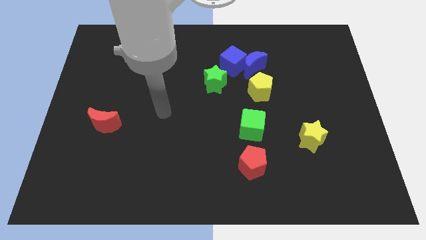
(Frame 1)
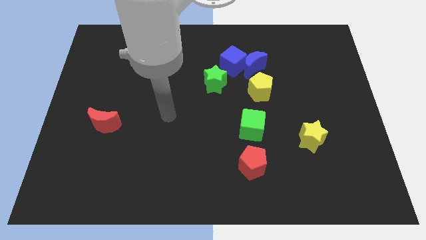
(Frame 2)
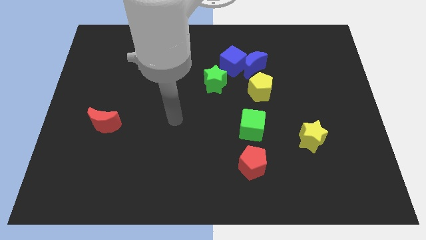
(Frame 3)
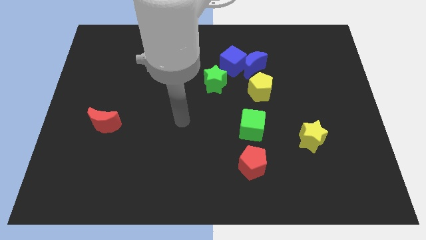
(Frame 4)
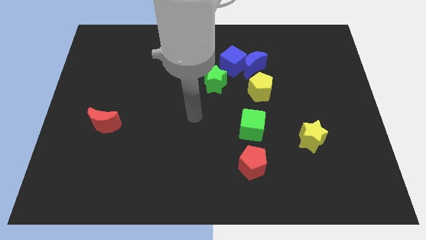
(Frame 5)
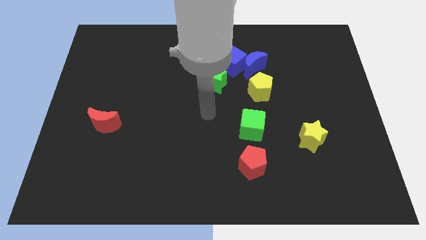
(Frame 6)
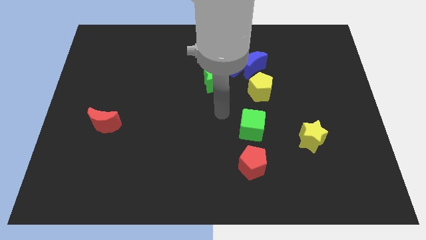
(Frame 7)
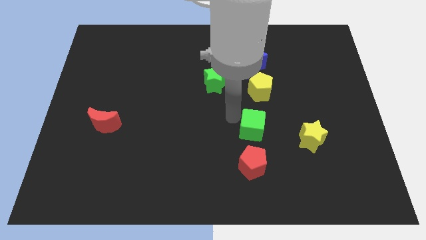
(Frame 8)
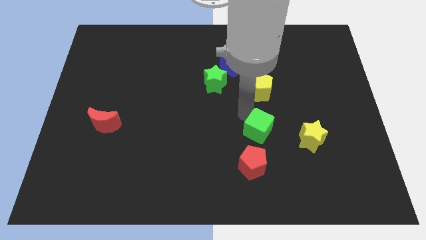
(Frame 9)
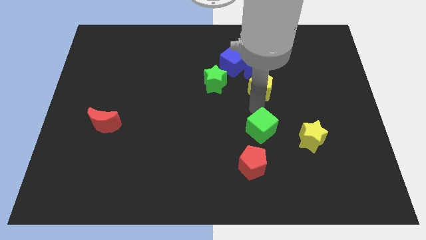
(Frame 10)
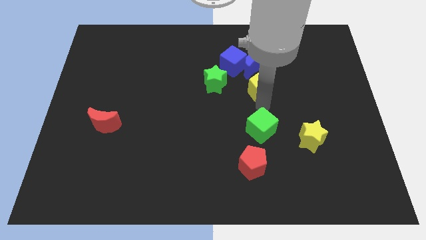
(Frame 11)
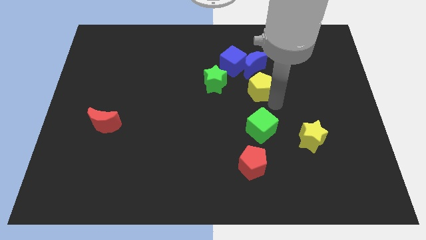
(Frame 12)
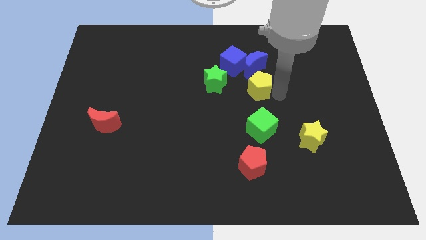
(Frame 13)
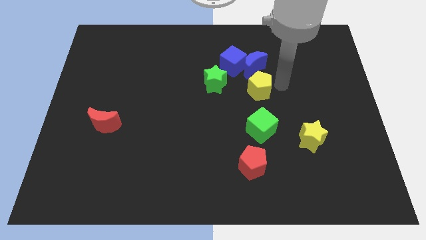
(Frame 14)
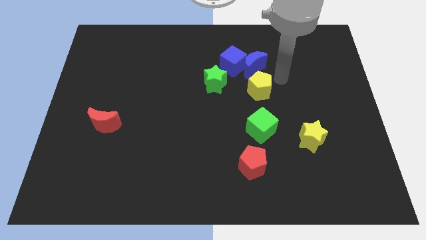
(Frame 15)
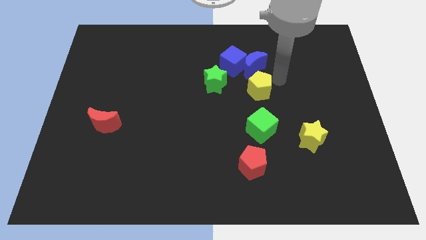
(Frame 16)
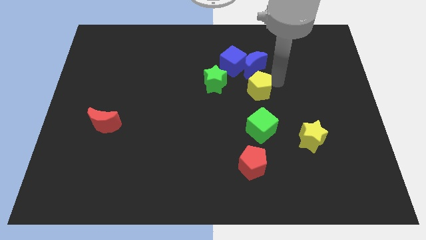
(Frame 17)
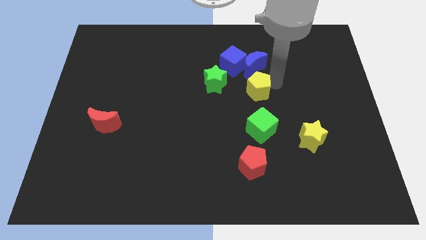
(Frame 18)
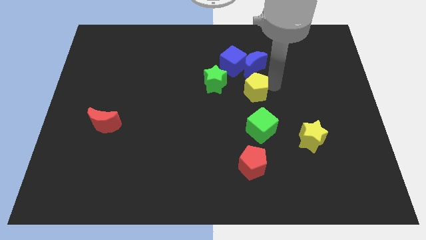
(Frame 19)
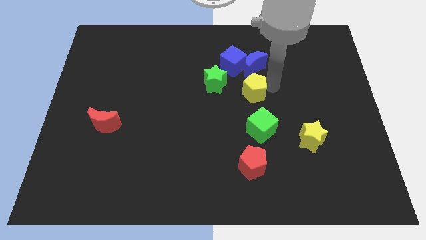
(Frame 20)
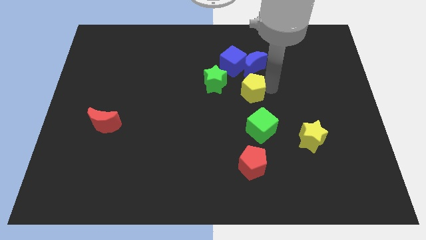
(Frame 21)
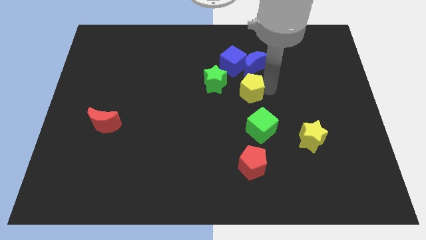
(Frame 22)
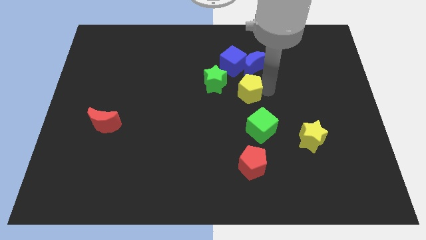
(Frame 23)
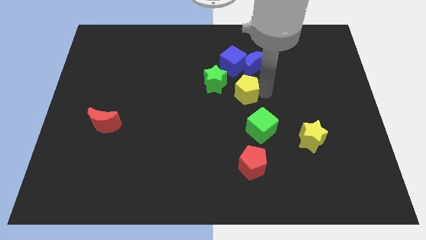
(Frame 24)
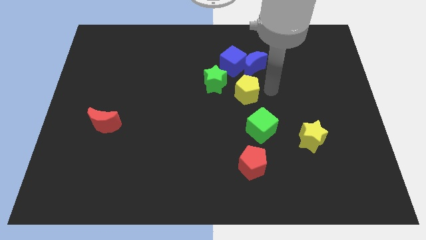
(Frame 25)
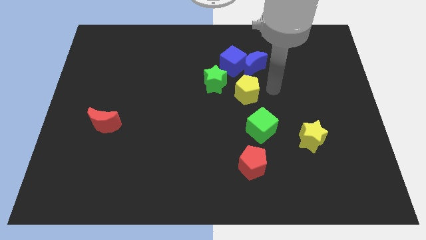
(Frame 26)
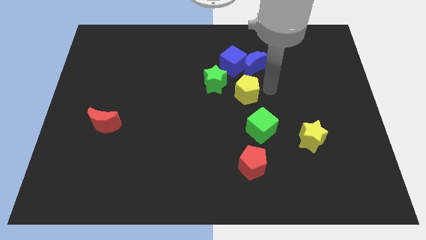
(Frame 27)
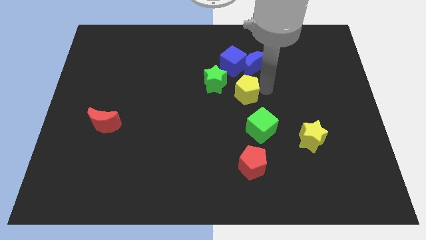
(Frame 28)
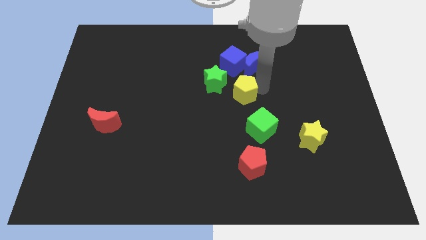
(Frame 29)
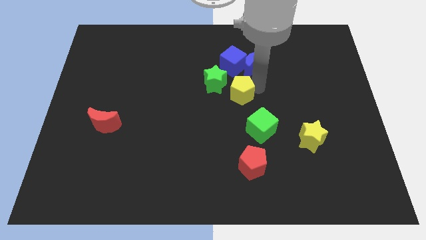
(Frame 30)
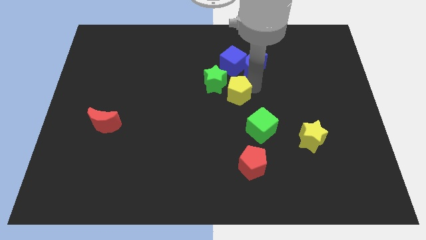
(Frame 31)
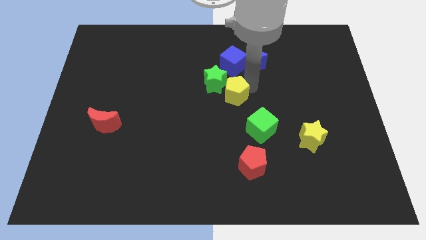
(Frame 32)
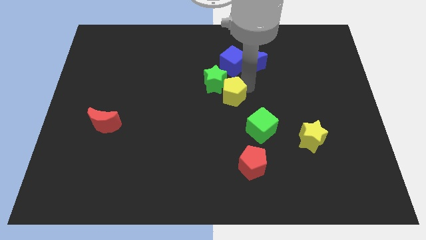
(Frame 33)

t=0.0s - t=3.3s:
move the yellow pentagon left a little bit

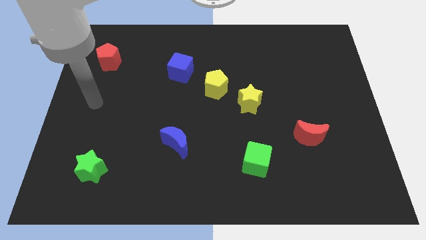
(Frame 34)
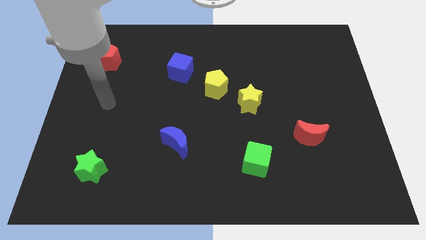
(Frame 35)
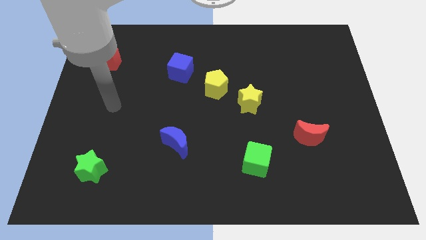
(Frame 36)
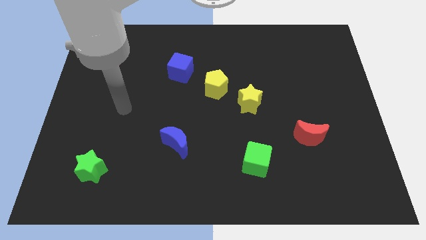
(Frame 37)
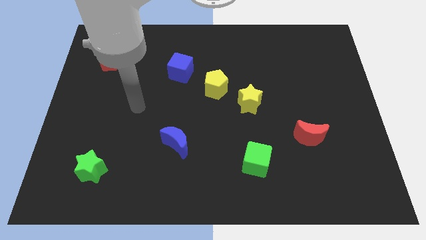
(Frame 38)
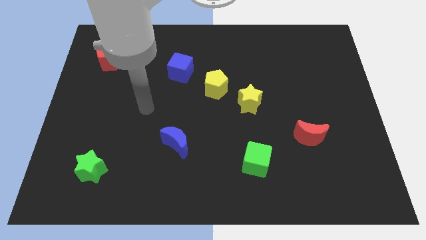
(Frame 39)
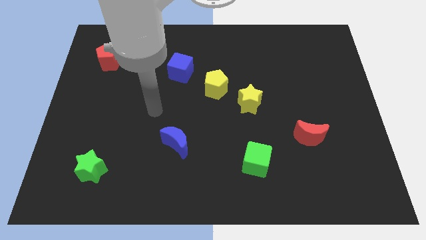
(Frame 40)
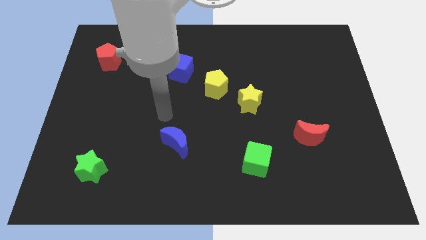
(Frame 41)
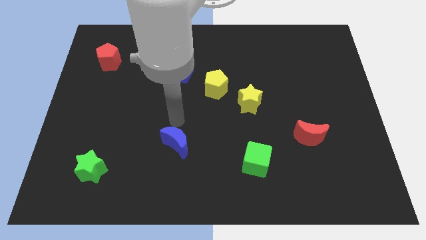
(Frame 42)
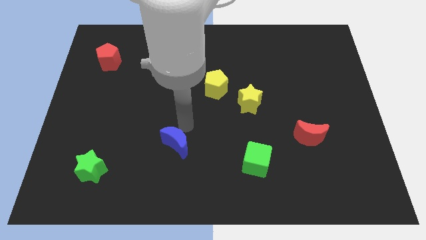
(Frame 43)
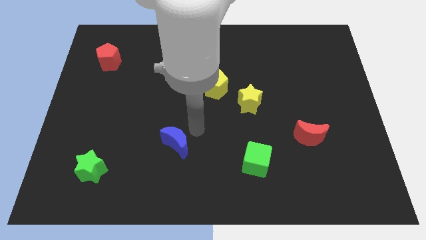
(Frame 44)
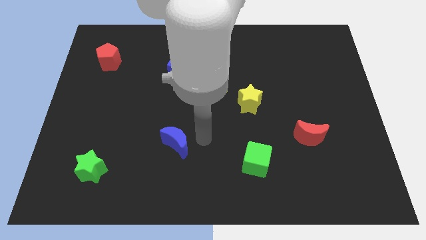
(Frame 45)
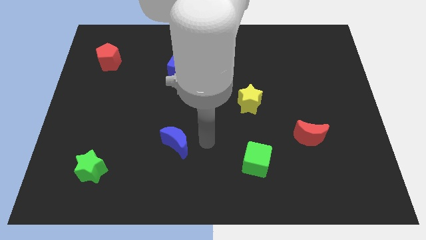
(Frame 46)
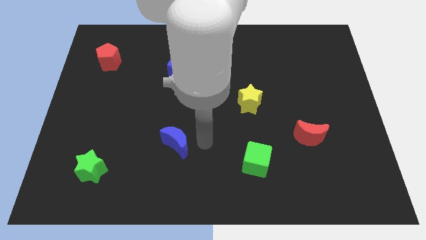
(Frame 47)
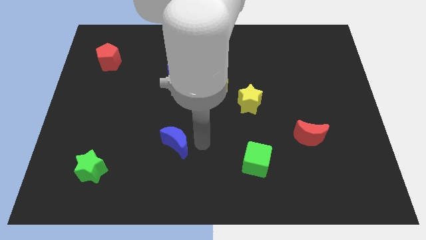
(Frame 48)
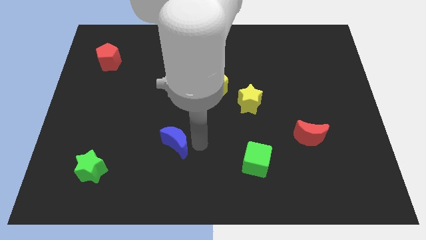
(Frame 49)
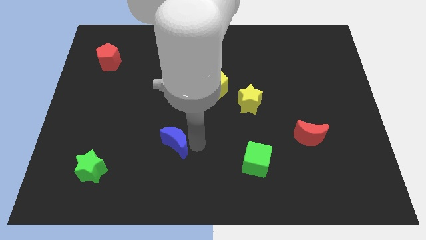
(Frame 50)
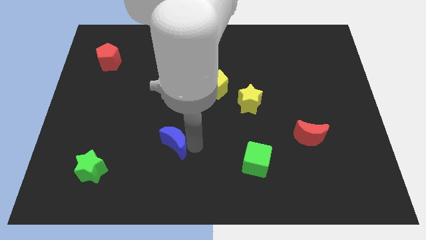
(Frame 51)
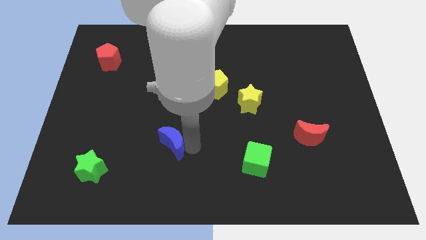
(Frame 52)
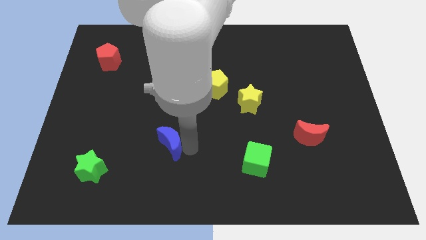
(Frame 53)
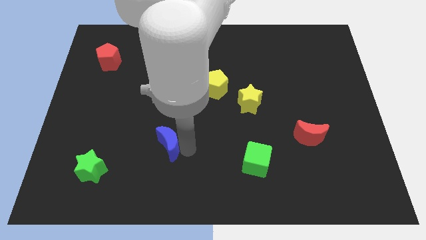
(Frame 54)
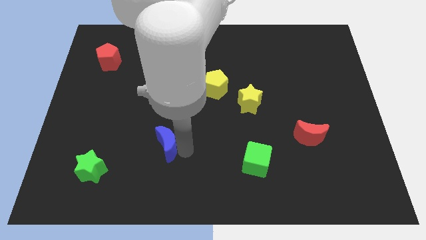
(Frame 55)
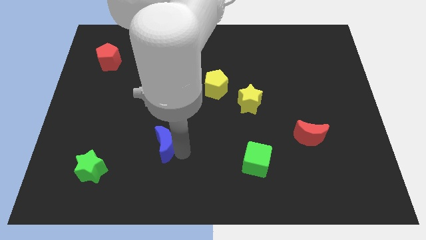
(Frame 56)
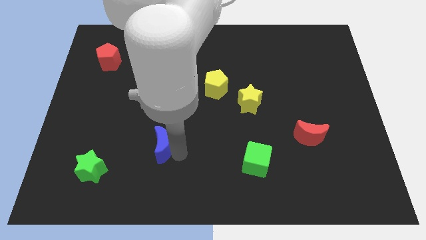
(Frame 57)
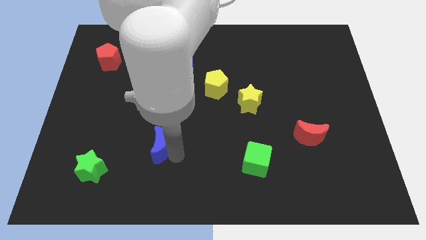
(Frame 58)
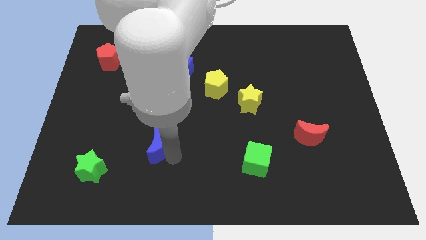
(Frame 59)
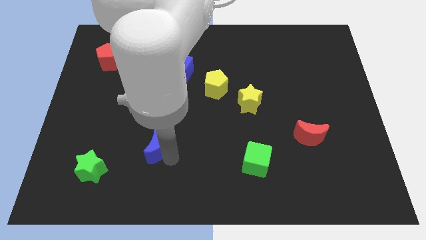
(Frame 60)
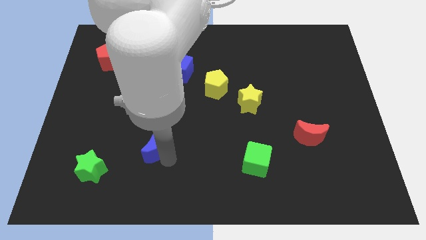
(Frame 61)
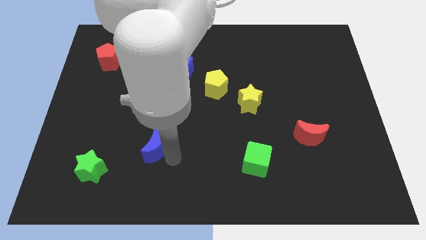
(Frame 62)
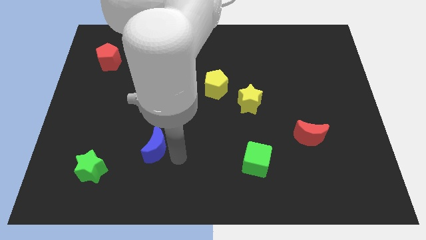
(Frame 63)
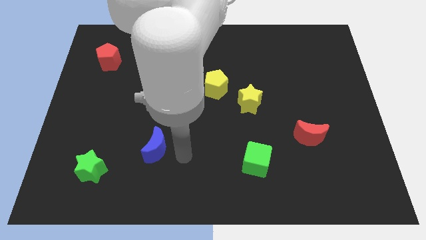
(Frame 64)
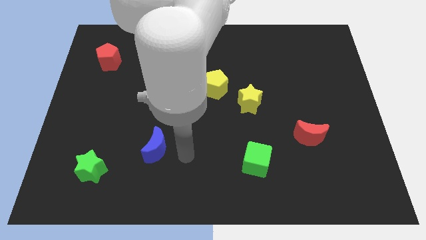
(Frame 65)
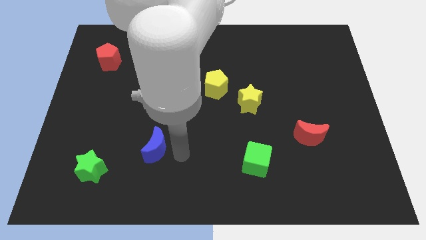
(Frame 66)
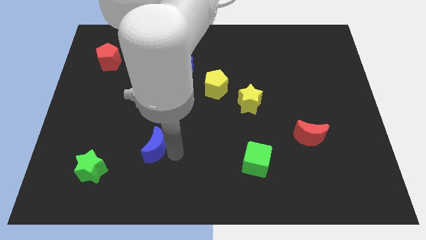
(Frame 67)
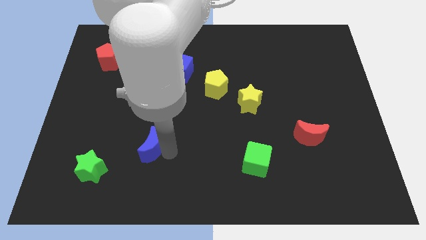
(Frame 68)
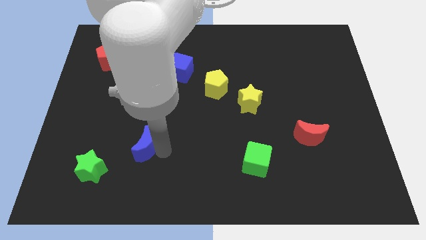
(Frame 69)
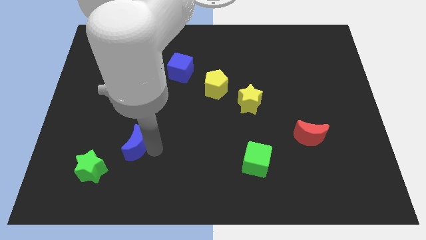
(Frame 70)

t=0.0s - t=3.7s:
slide the blue moon a little bit to the left

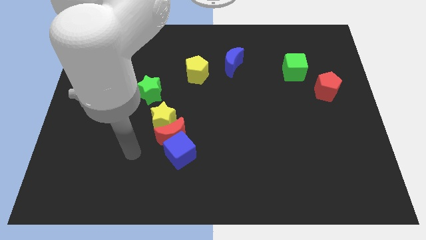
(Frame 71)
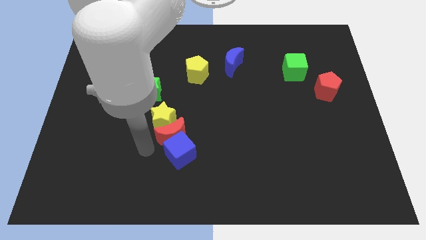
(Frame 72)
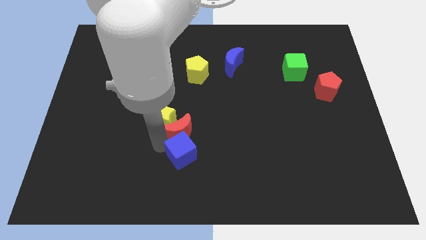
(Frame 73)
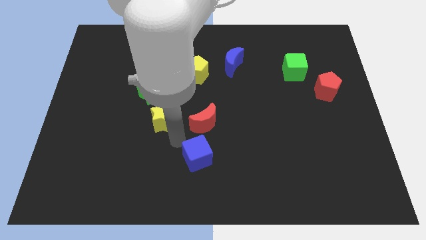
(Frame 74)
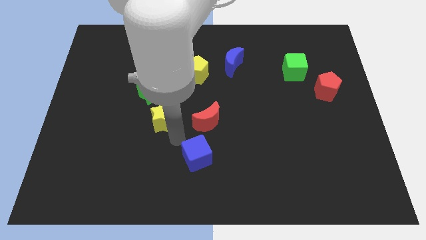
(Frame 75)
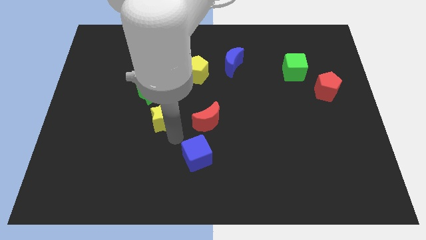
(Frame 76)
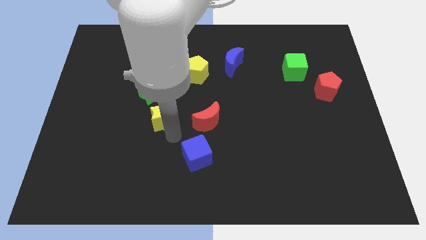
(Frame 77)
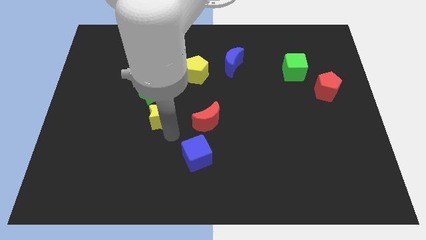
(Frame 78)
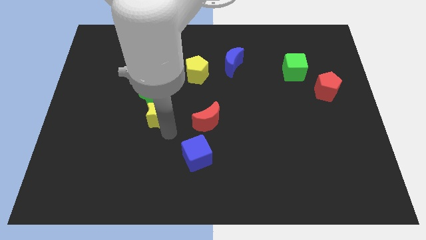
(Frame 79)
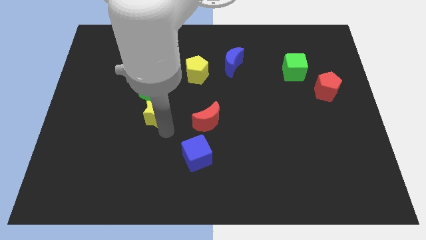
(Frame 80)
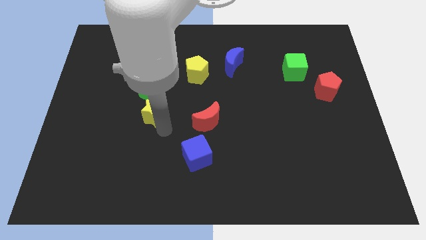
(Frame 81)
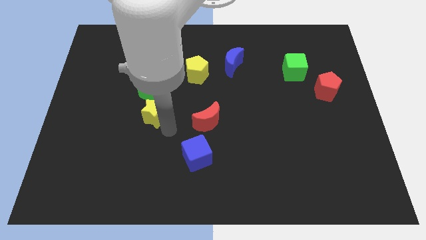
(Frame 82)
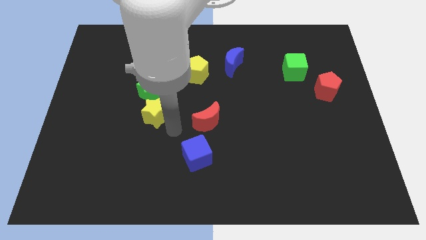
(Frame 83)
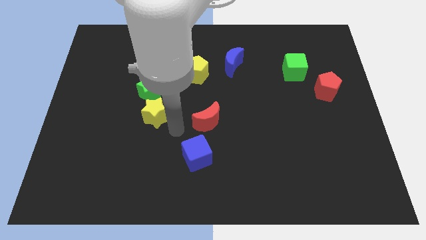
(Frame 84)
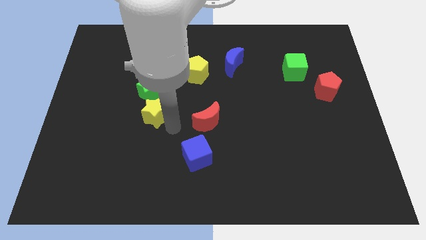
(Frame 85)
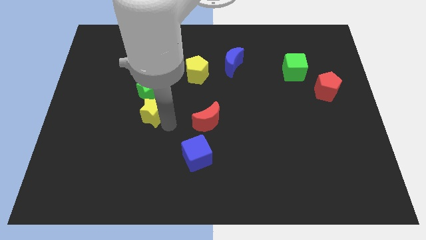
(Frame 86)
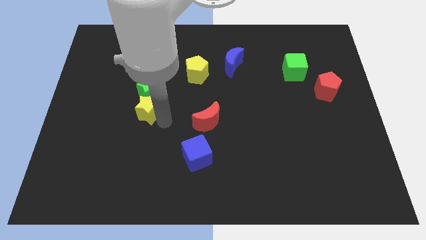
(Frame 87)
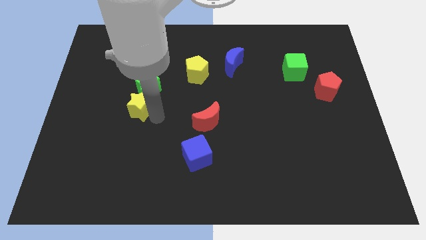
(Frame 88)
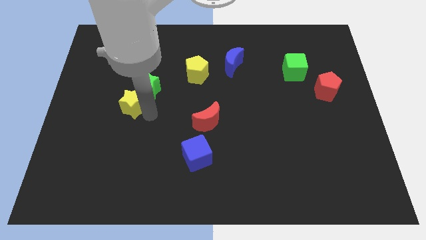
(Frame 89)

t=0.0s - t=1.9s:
move the yellow star diagonally up and to the left somewhat
